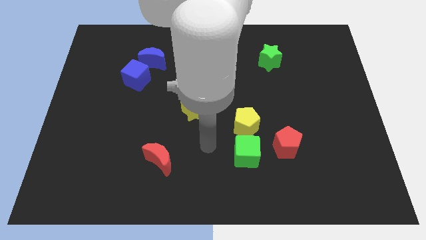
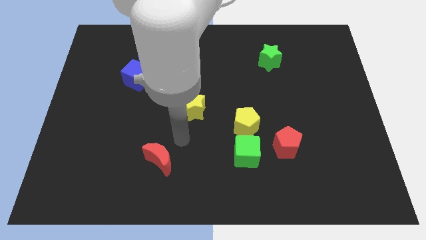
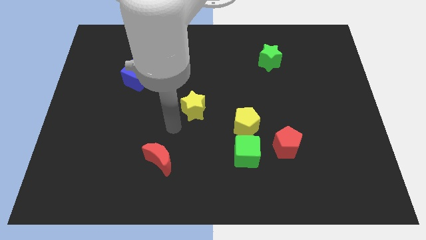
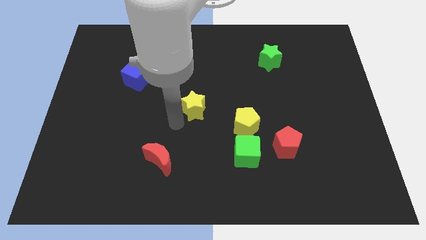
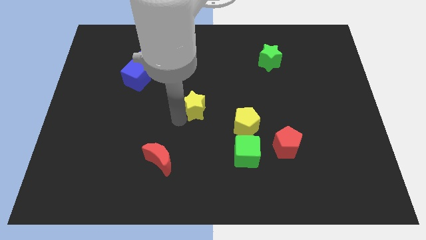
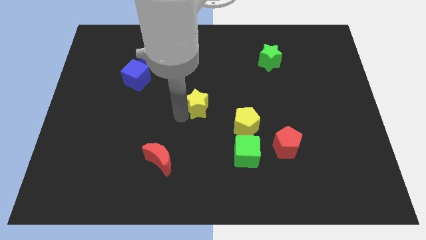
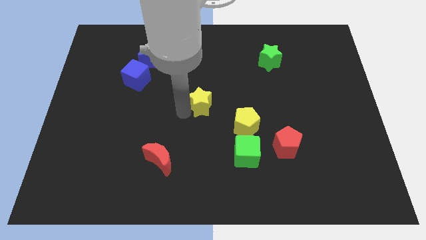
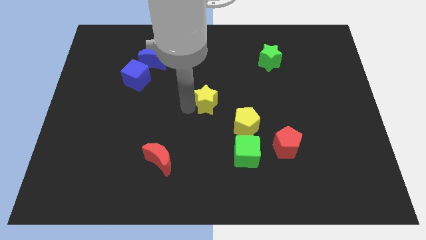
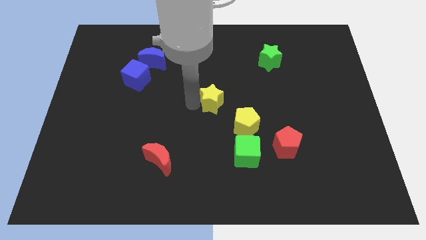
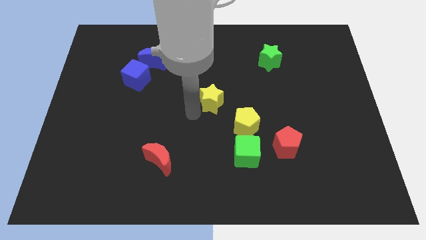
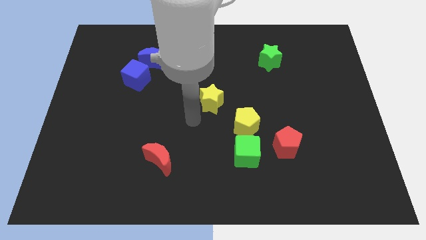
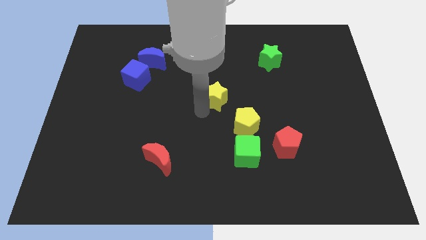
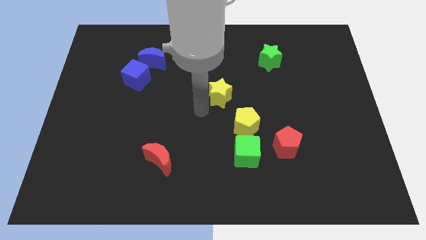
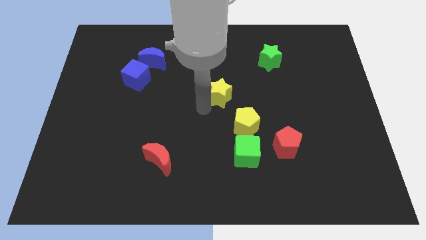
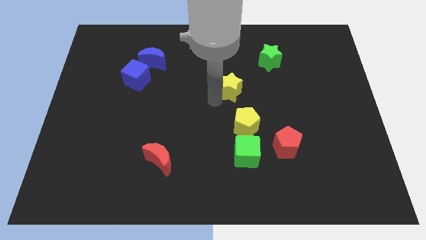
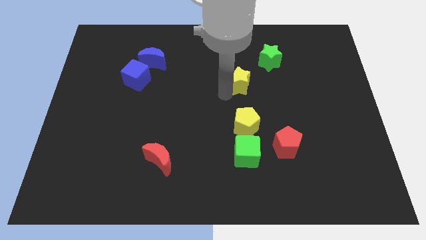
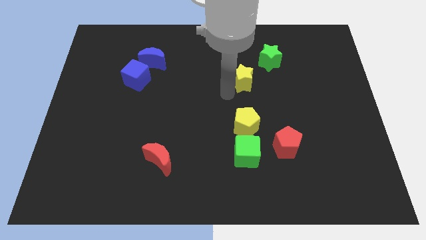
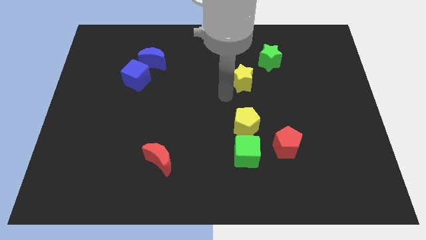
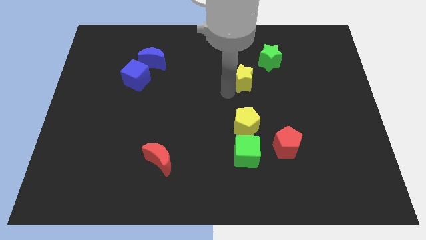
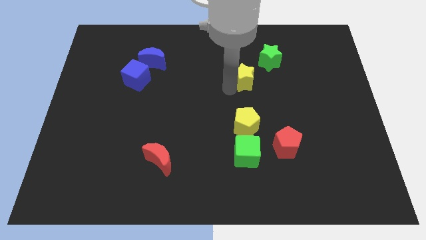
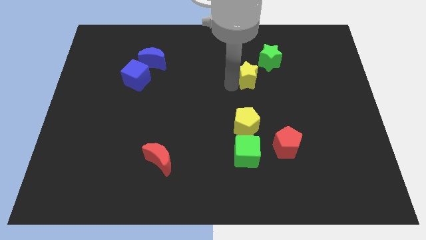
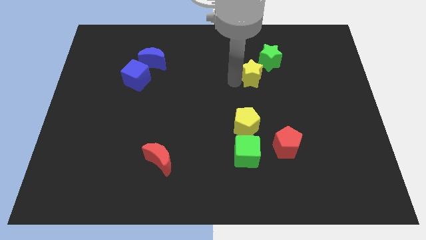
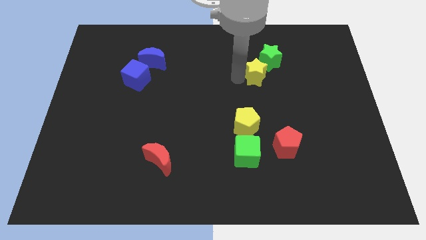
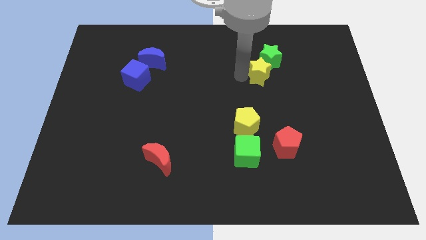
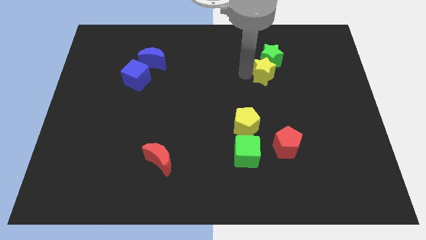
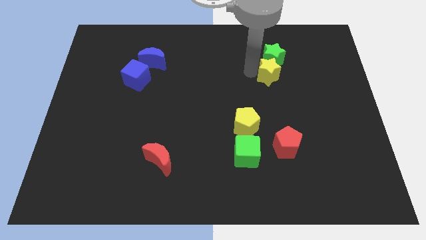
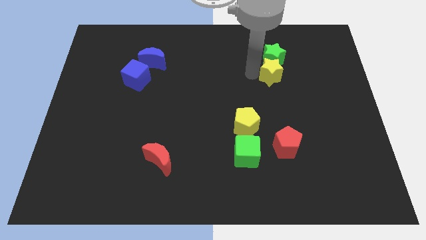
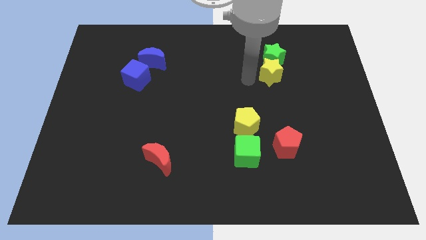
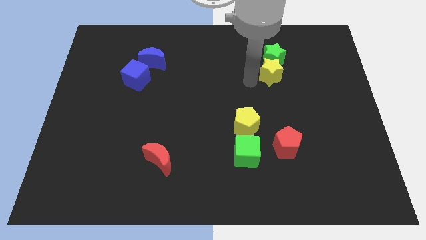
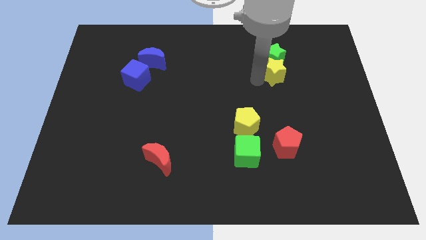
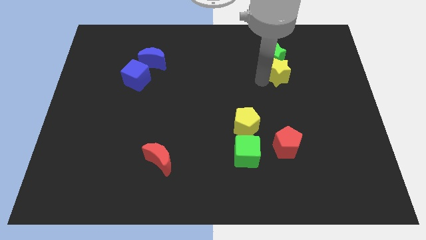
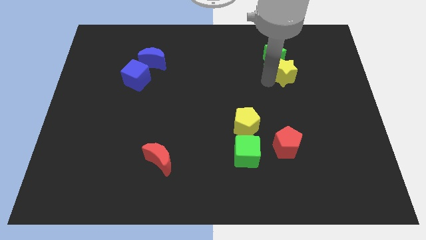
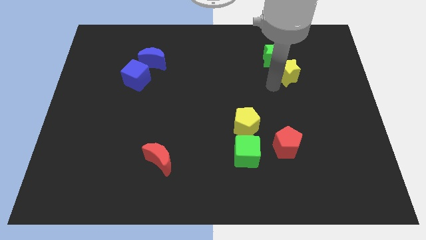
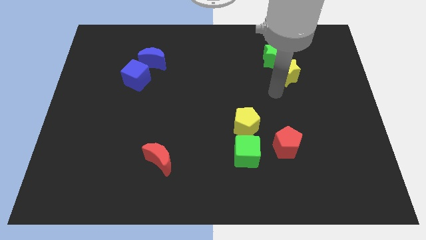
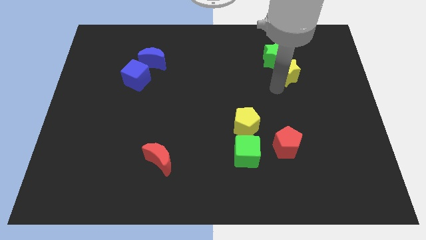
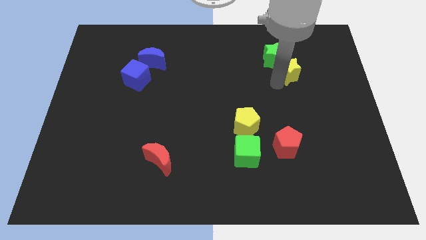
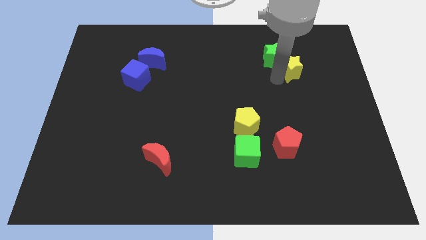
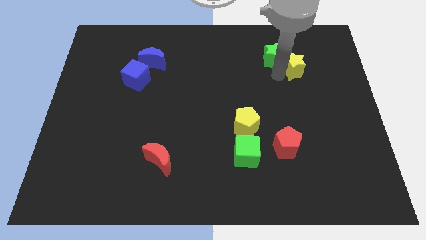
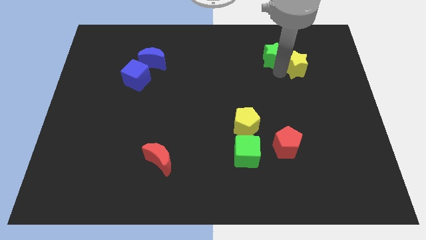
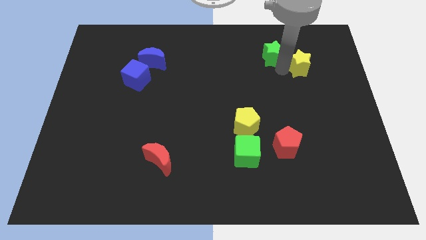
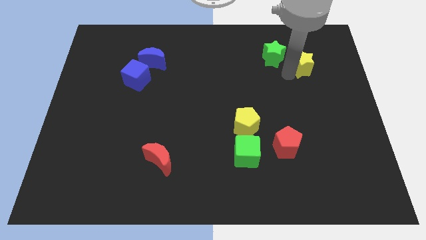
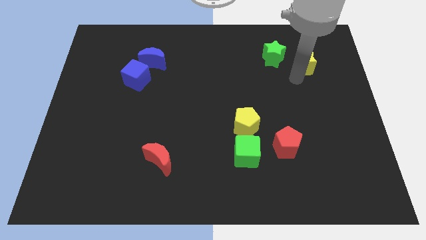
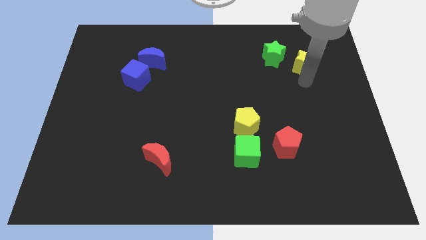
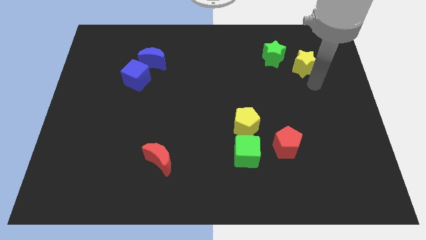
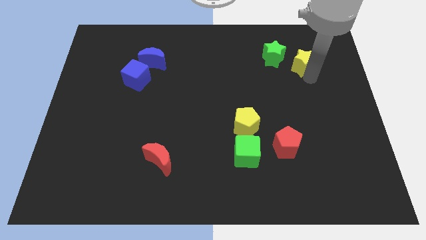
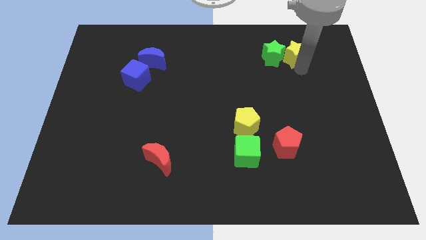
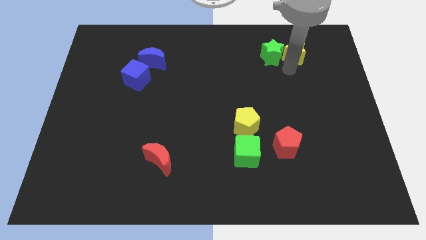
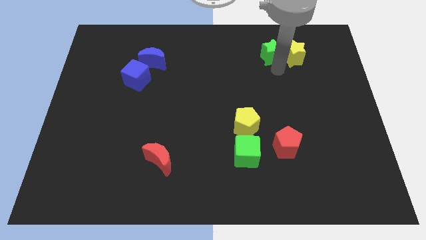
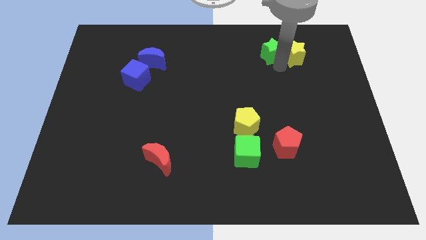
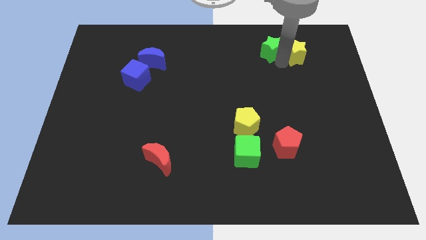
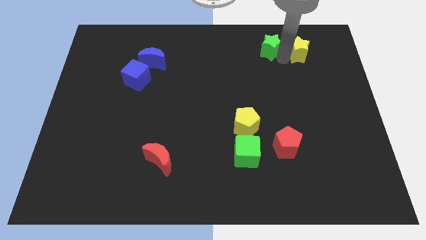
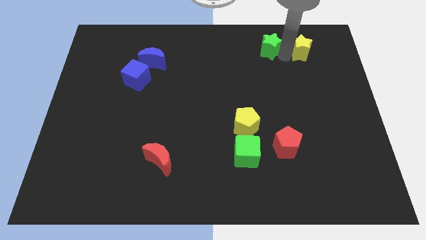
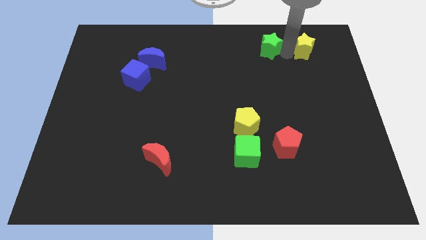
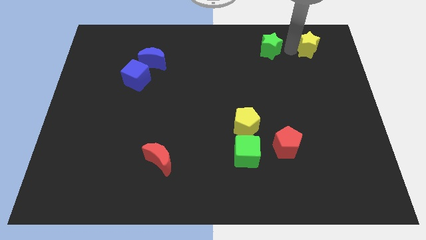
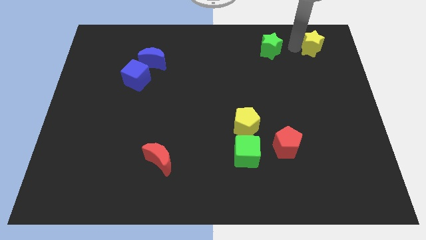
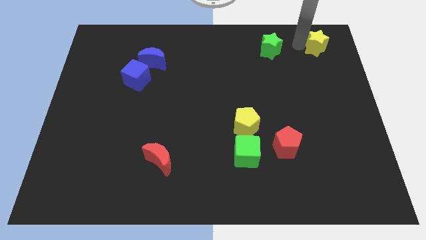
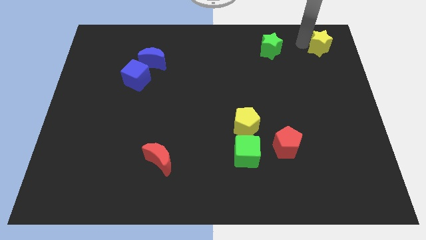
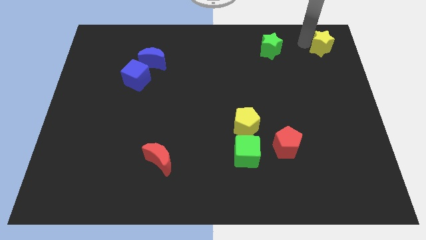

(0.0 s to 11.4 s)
put the yellow star to the top right corner

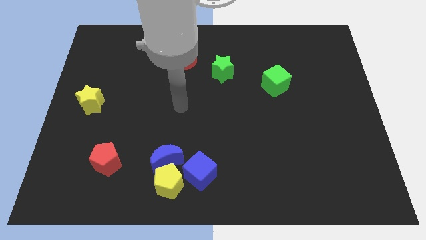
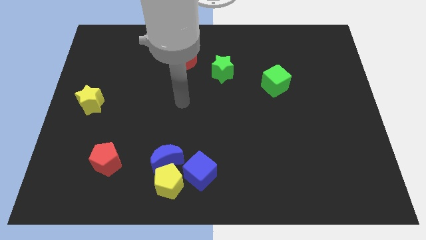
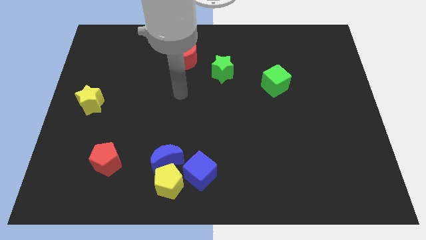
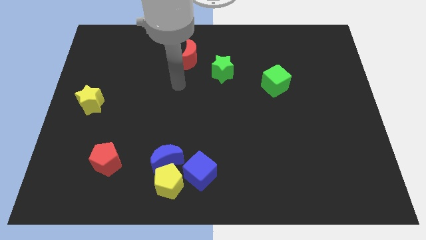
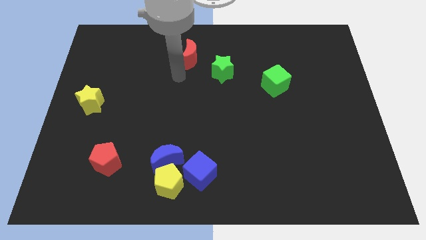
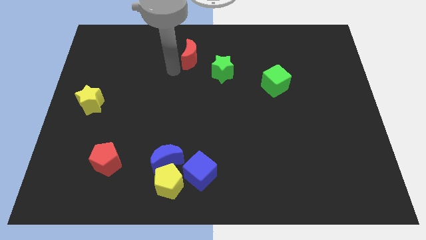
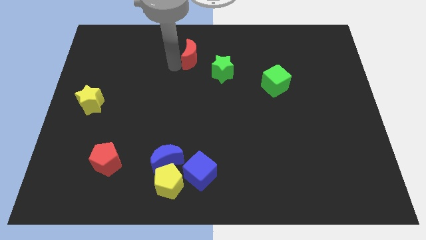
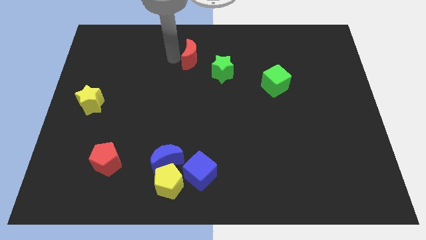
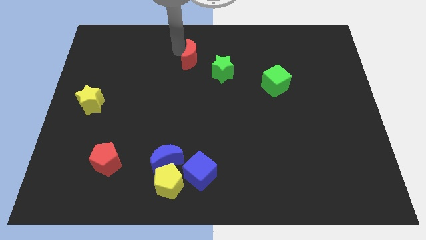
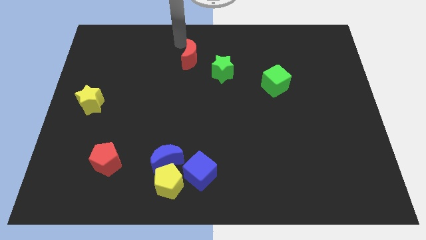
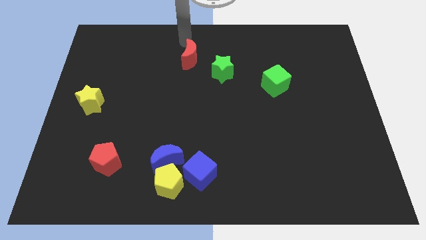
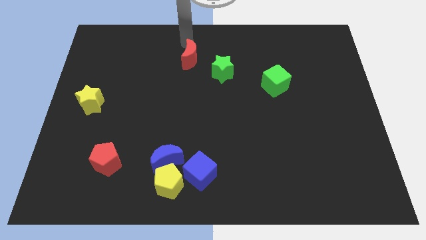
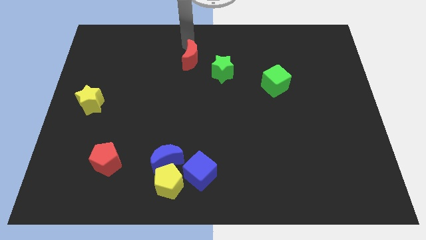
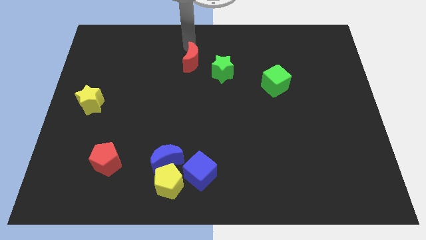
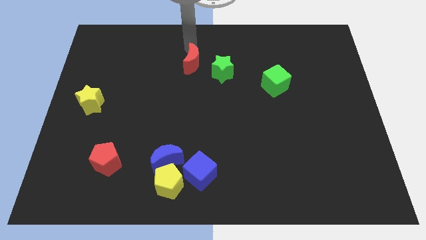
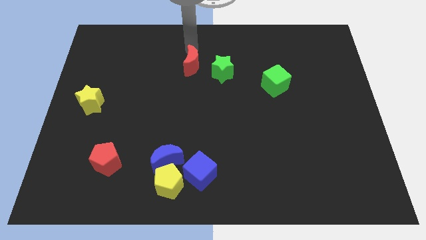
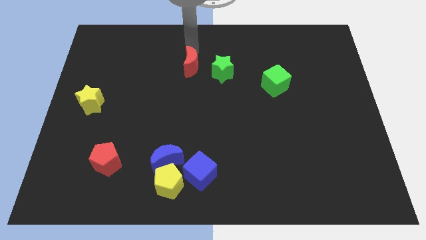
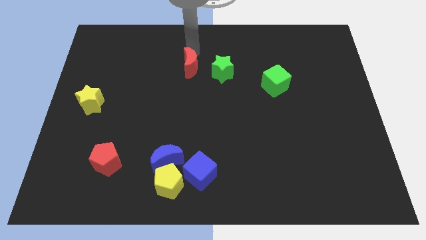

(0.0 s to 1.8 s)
push the red moon to the center of the board
